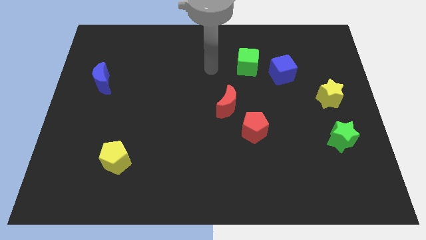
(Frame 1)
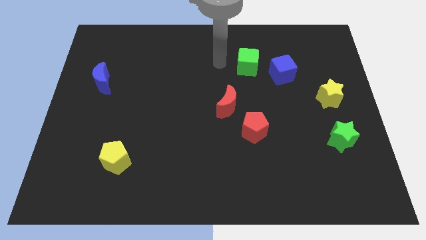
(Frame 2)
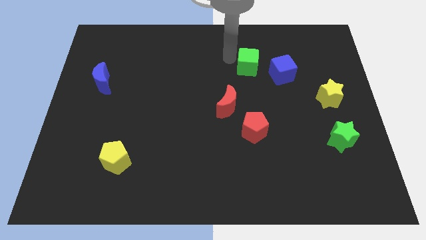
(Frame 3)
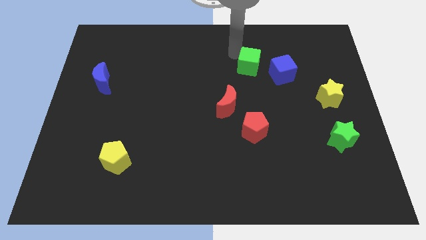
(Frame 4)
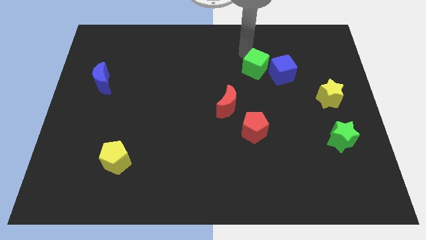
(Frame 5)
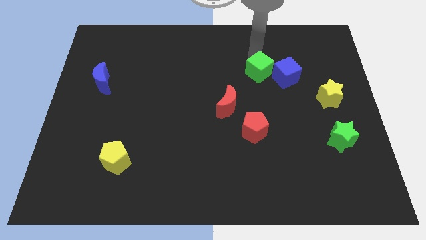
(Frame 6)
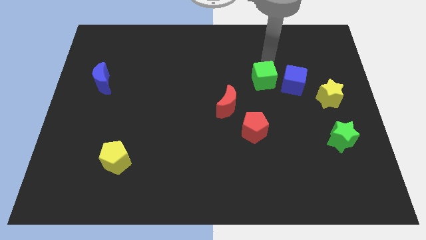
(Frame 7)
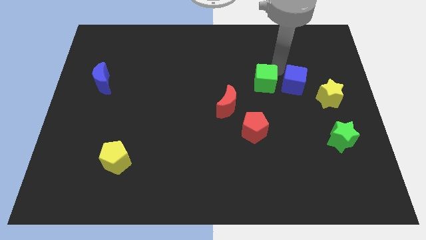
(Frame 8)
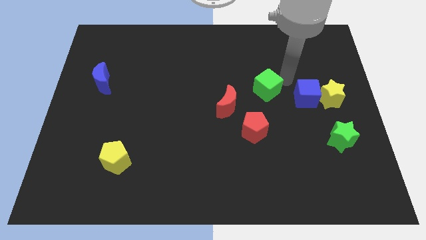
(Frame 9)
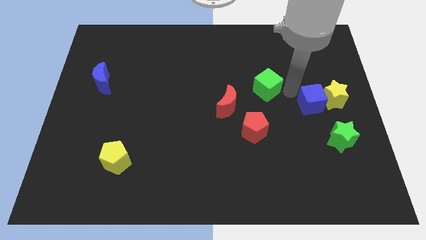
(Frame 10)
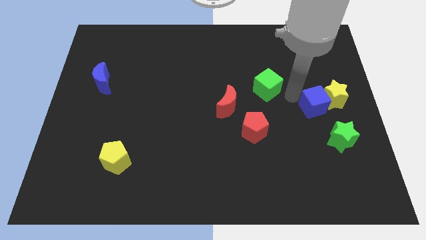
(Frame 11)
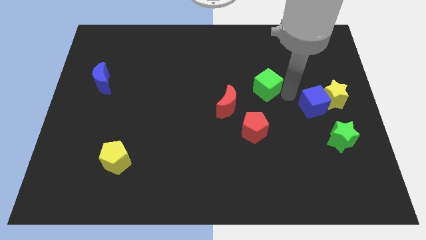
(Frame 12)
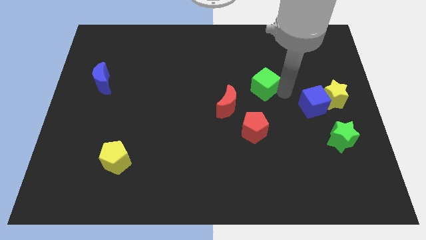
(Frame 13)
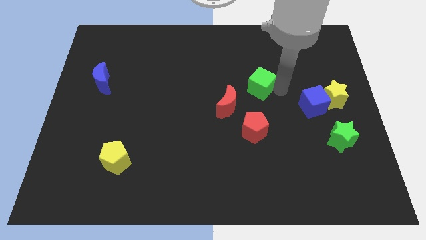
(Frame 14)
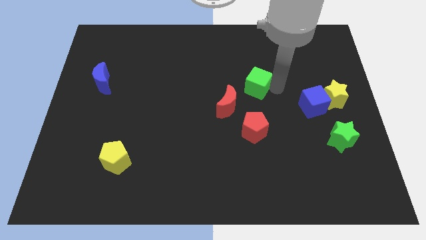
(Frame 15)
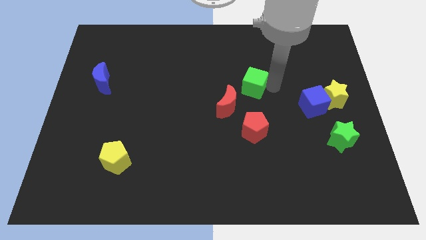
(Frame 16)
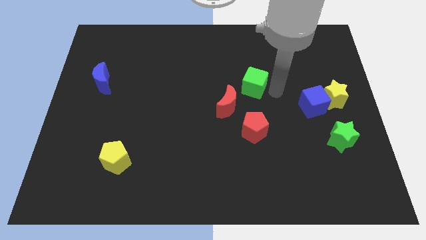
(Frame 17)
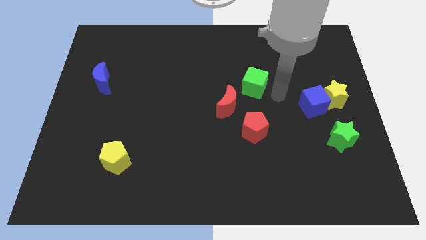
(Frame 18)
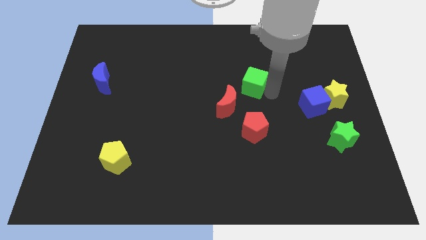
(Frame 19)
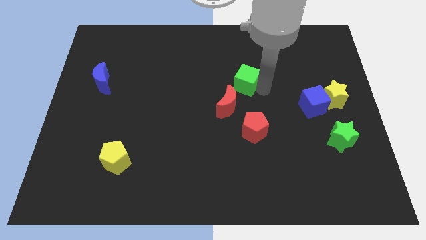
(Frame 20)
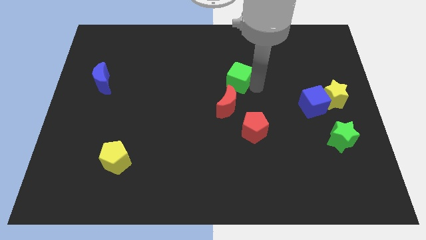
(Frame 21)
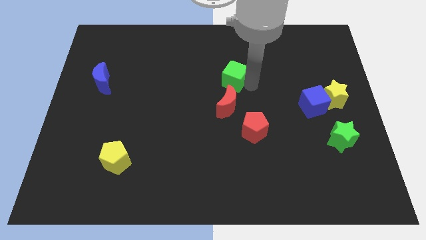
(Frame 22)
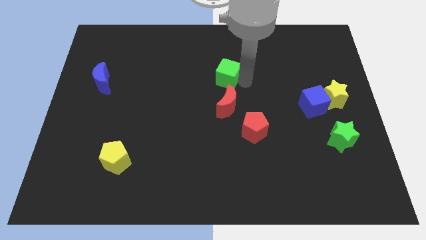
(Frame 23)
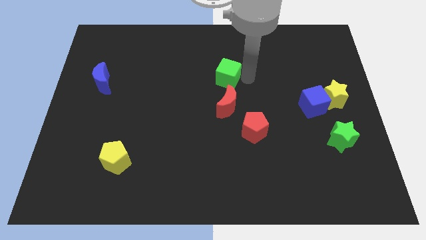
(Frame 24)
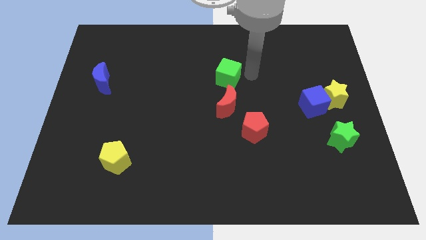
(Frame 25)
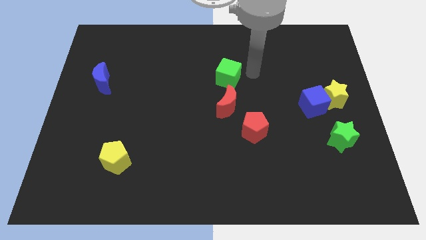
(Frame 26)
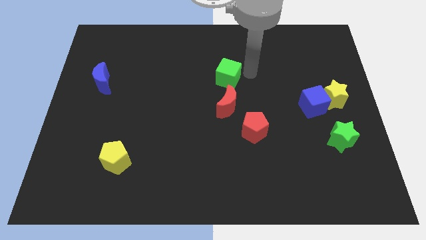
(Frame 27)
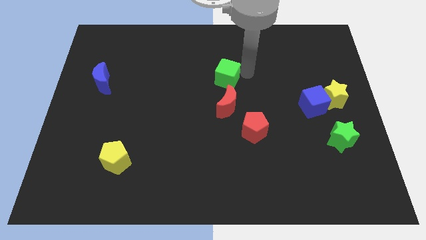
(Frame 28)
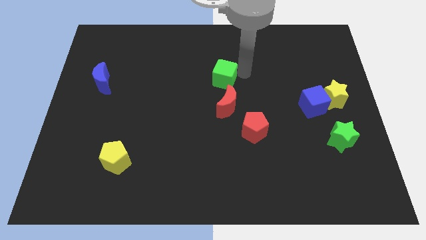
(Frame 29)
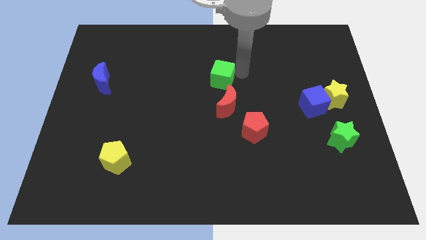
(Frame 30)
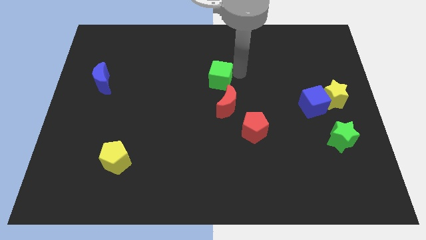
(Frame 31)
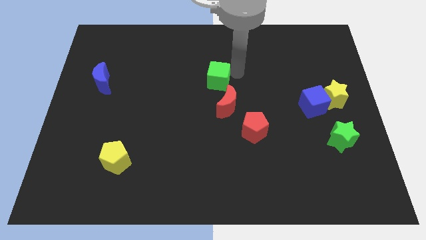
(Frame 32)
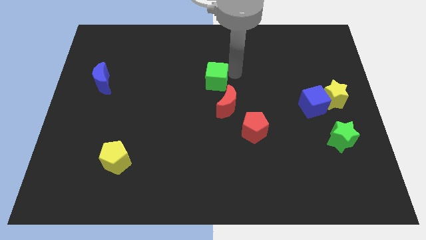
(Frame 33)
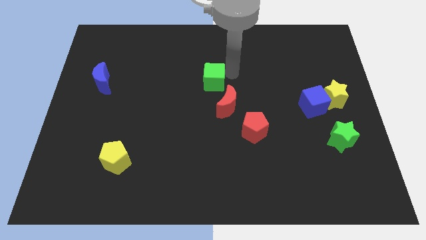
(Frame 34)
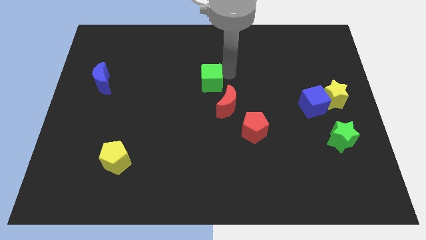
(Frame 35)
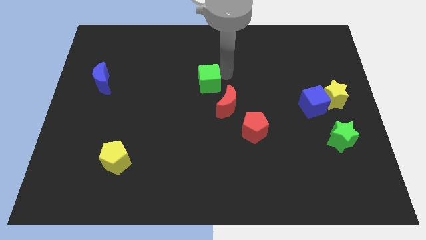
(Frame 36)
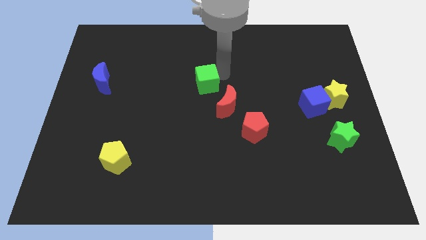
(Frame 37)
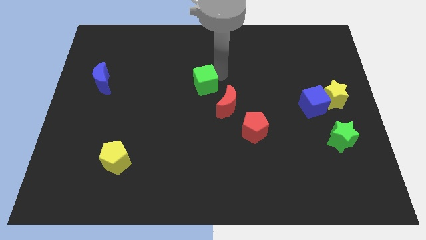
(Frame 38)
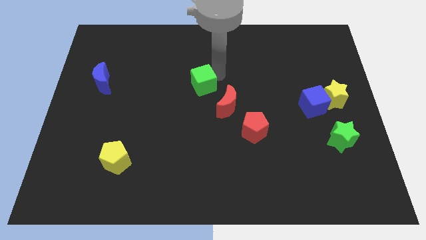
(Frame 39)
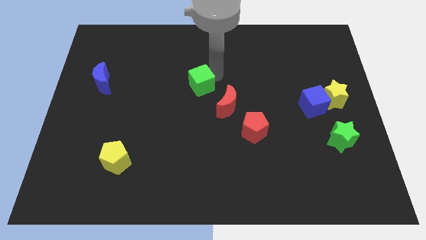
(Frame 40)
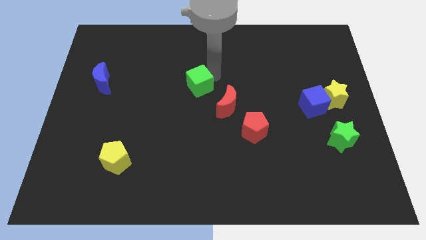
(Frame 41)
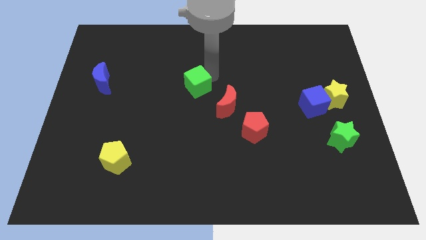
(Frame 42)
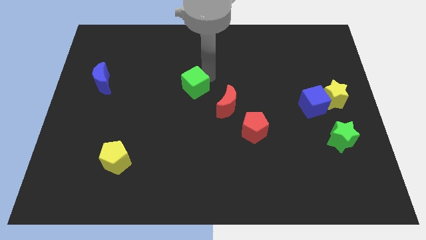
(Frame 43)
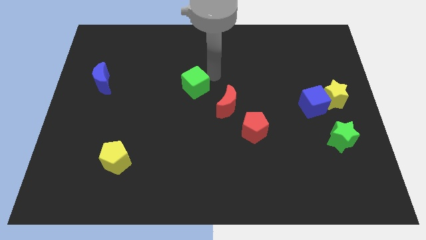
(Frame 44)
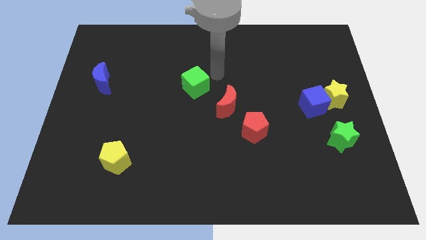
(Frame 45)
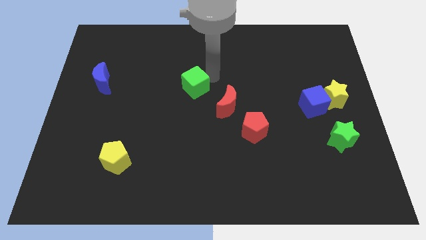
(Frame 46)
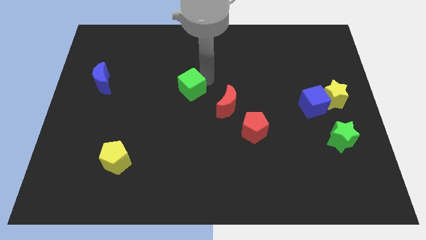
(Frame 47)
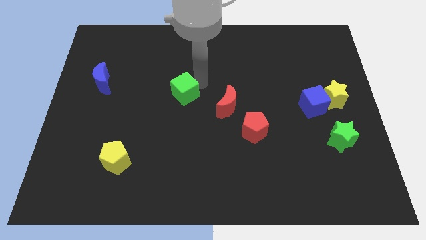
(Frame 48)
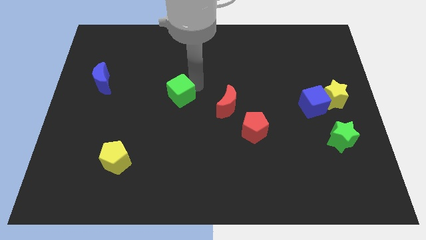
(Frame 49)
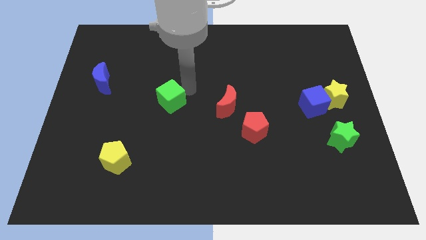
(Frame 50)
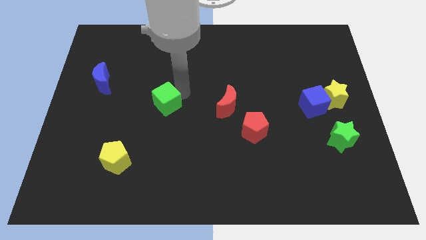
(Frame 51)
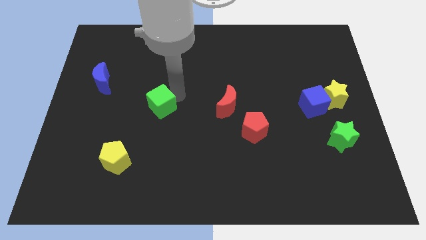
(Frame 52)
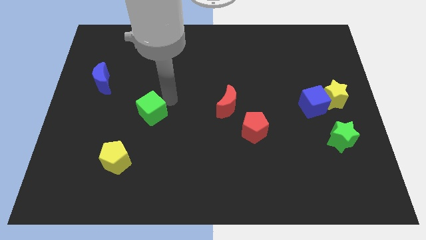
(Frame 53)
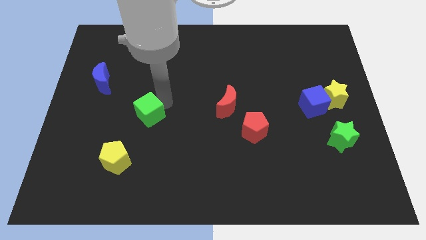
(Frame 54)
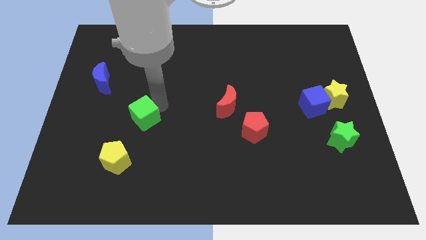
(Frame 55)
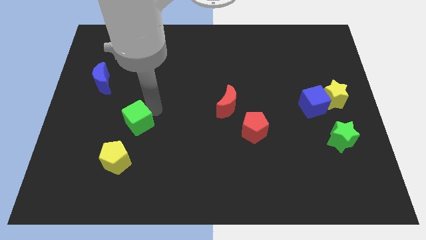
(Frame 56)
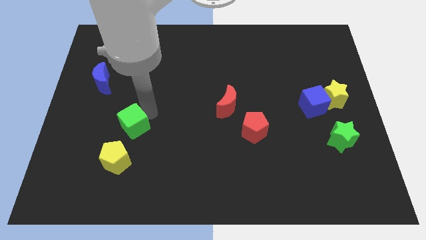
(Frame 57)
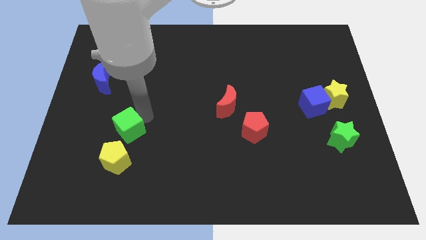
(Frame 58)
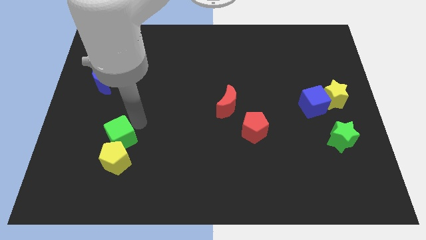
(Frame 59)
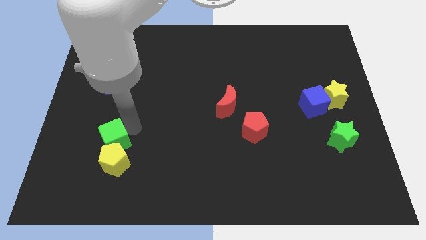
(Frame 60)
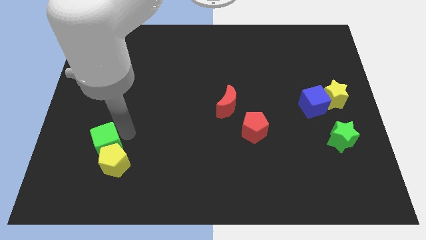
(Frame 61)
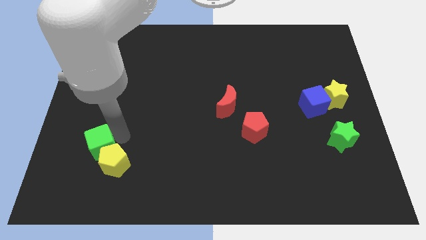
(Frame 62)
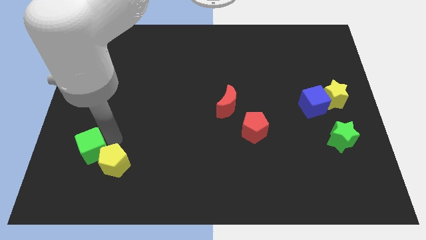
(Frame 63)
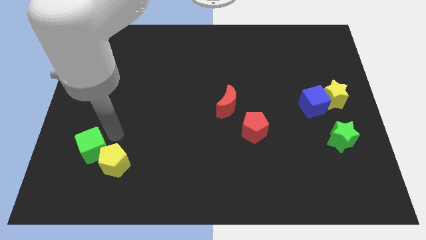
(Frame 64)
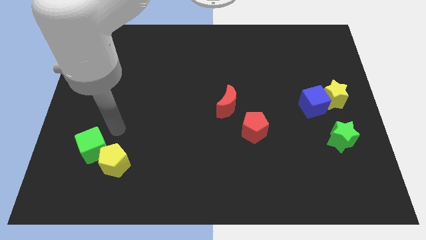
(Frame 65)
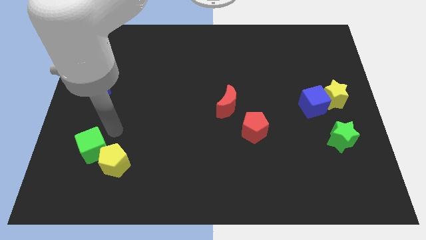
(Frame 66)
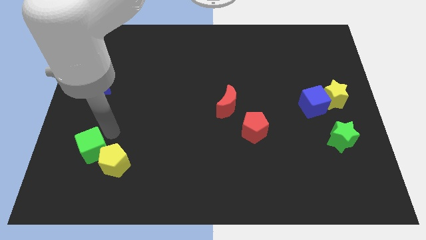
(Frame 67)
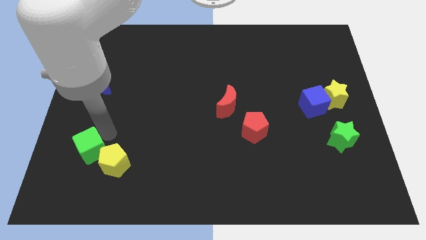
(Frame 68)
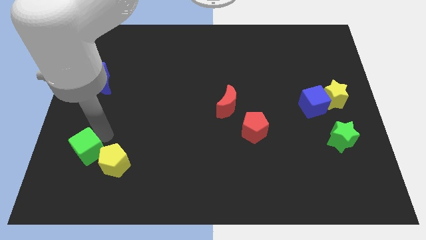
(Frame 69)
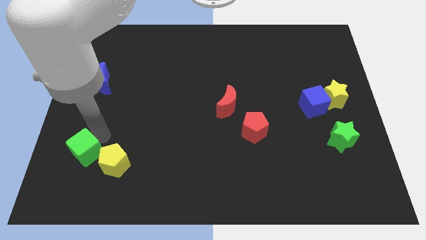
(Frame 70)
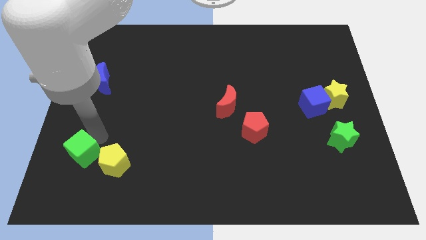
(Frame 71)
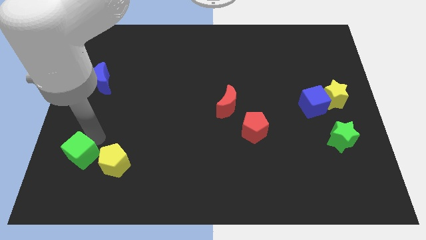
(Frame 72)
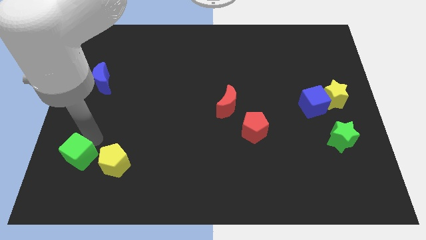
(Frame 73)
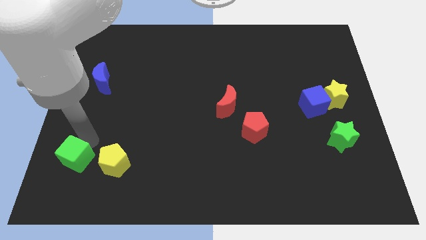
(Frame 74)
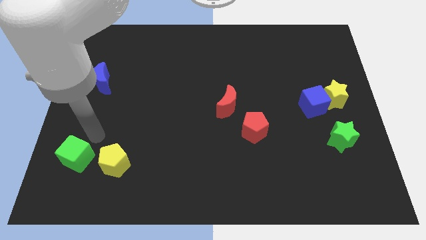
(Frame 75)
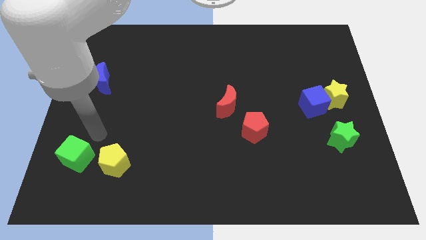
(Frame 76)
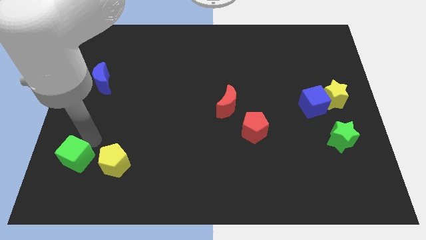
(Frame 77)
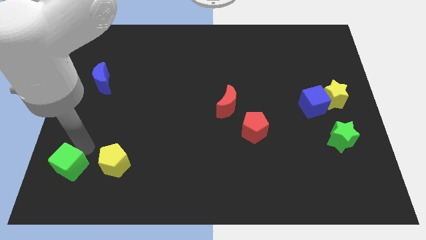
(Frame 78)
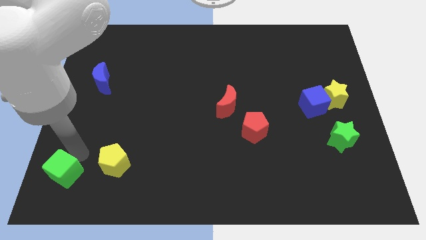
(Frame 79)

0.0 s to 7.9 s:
push the green cube to the bottom left corner
